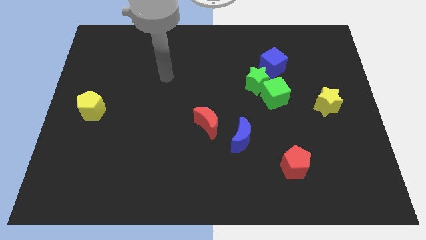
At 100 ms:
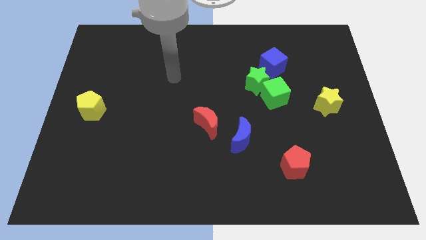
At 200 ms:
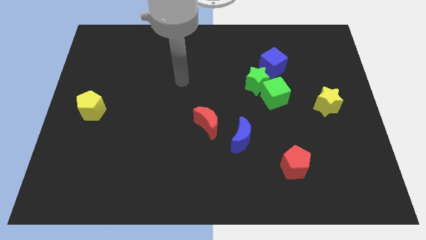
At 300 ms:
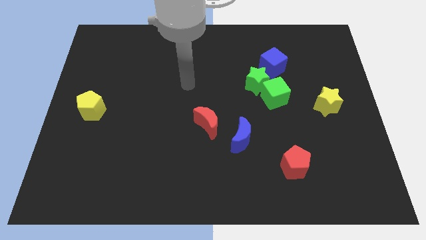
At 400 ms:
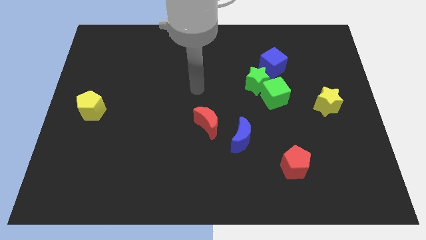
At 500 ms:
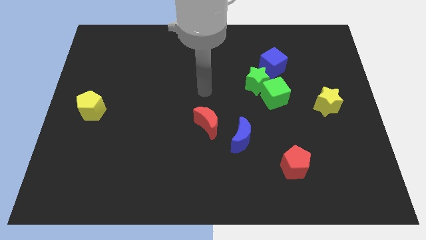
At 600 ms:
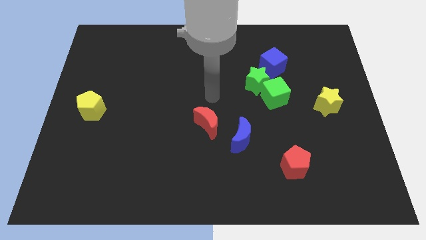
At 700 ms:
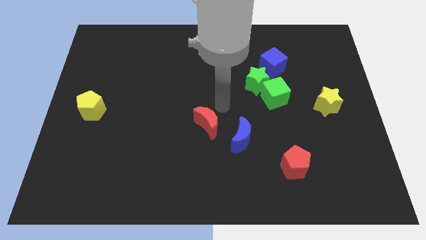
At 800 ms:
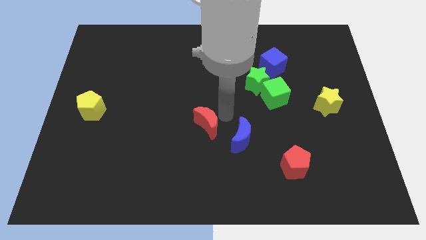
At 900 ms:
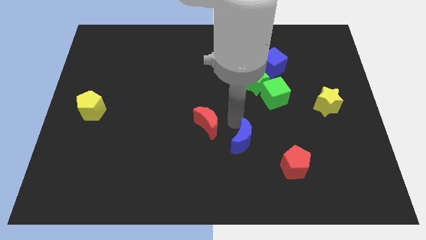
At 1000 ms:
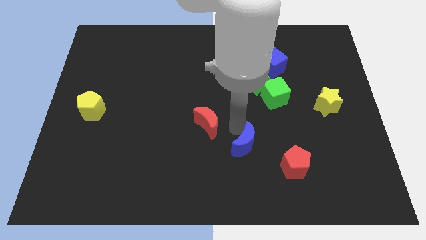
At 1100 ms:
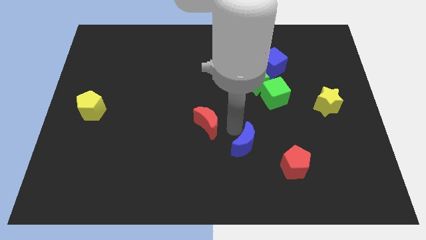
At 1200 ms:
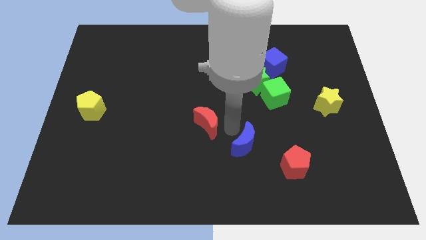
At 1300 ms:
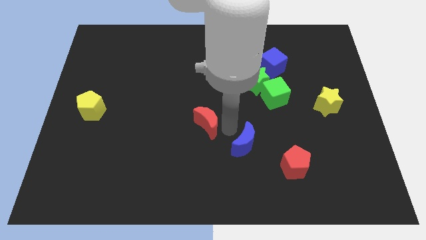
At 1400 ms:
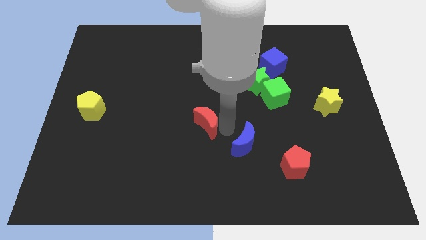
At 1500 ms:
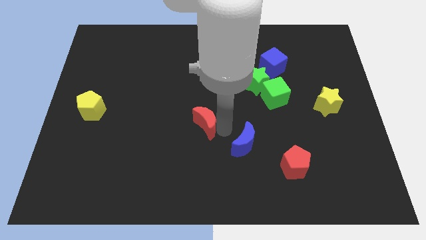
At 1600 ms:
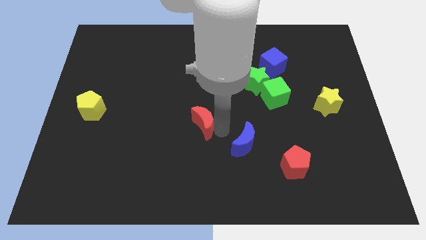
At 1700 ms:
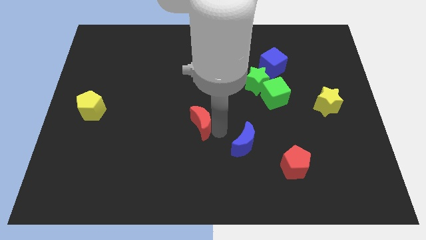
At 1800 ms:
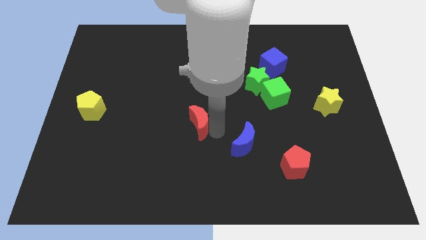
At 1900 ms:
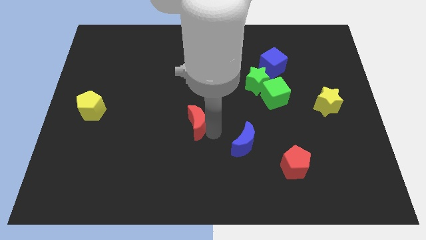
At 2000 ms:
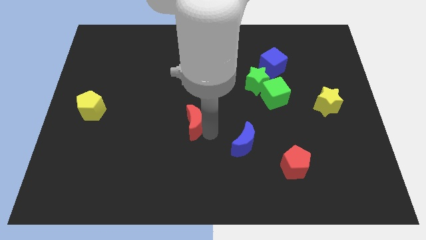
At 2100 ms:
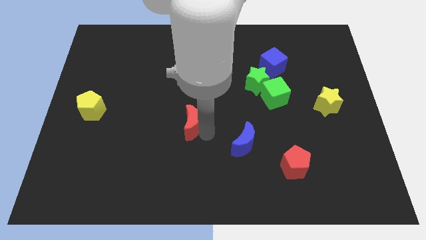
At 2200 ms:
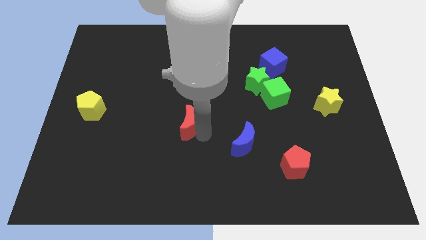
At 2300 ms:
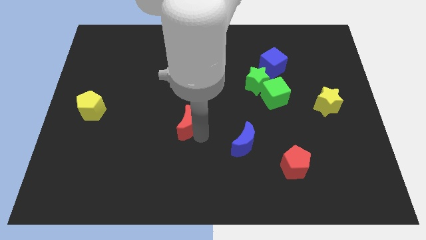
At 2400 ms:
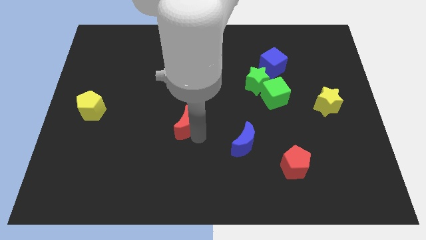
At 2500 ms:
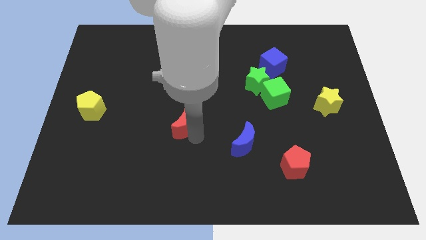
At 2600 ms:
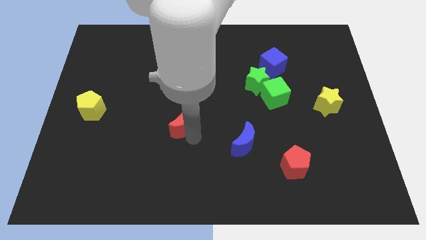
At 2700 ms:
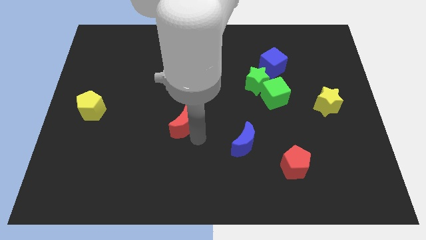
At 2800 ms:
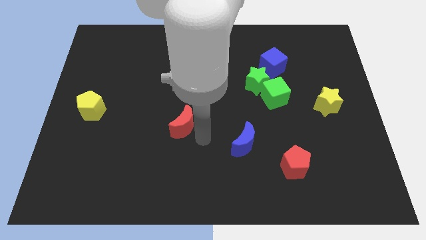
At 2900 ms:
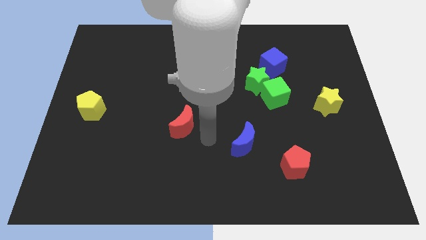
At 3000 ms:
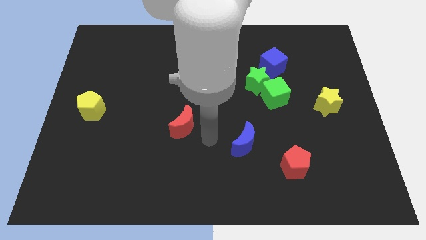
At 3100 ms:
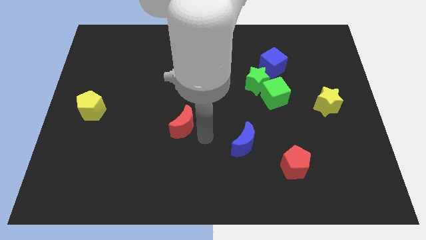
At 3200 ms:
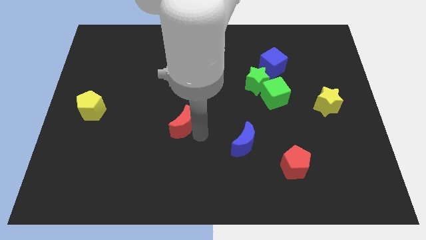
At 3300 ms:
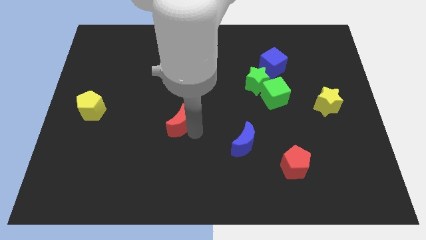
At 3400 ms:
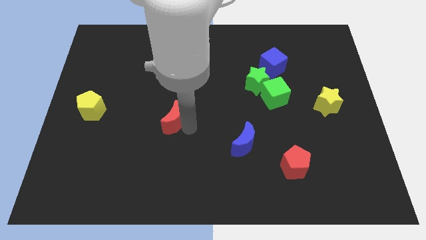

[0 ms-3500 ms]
slightly push the red moon to the left

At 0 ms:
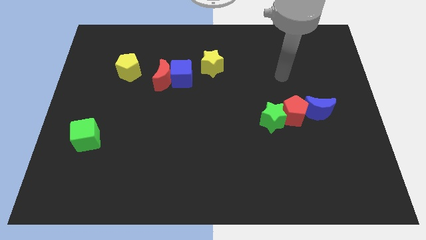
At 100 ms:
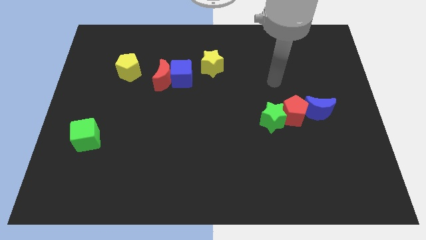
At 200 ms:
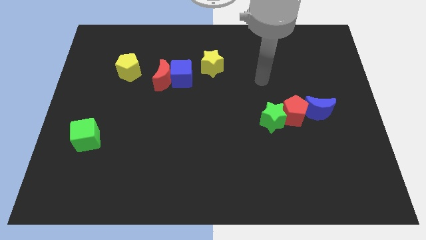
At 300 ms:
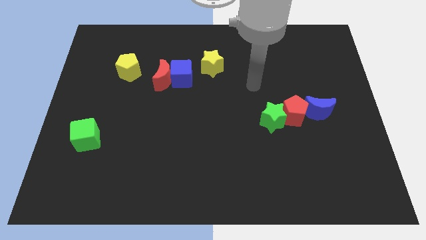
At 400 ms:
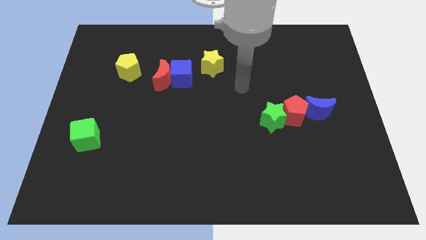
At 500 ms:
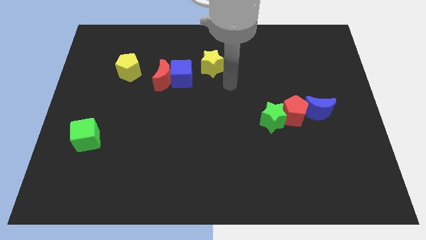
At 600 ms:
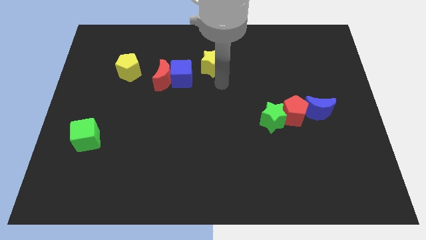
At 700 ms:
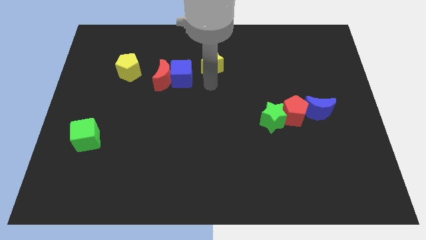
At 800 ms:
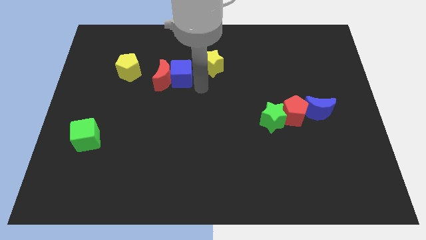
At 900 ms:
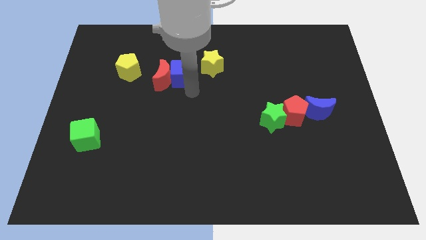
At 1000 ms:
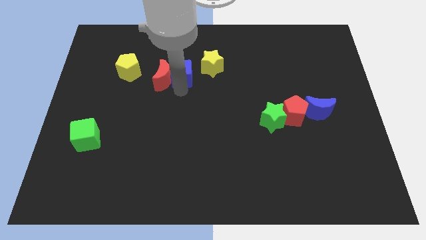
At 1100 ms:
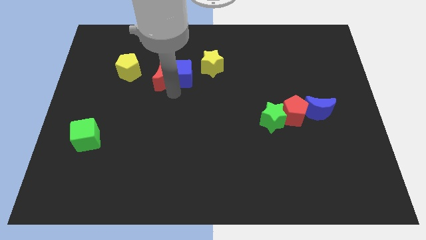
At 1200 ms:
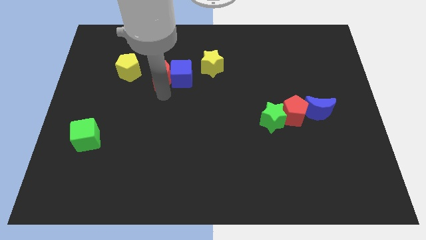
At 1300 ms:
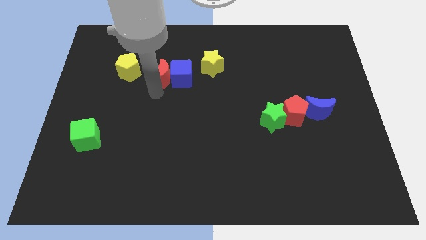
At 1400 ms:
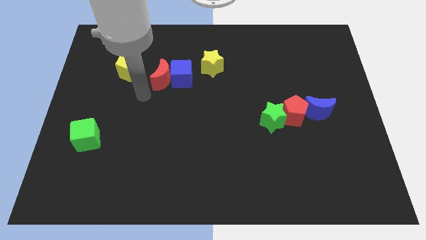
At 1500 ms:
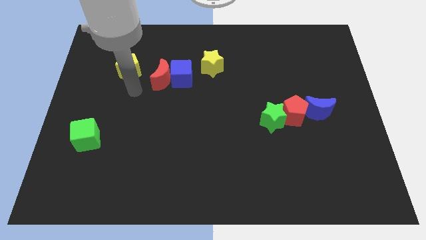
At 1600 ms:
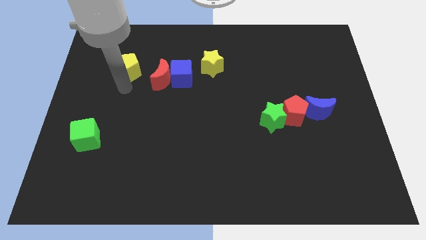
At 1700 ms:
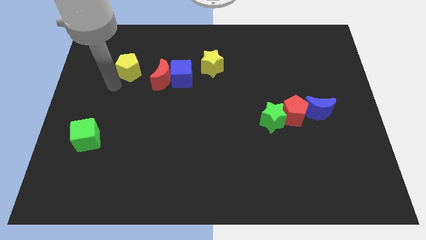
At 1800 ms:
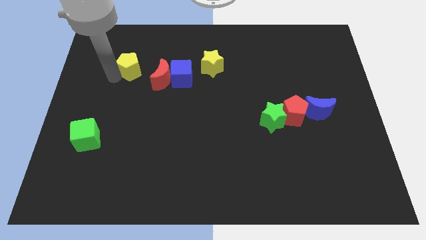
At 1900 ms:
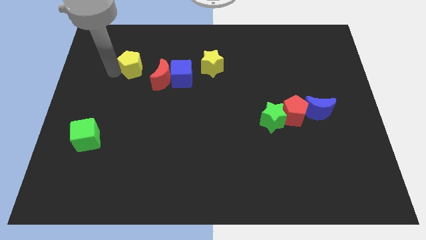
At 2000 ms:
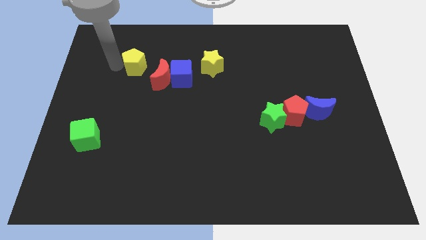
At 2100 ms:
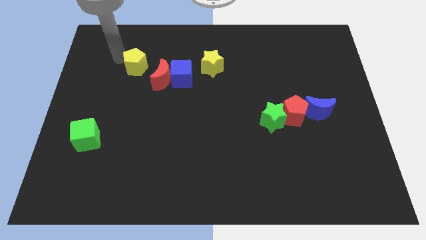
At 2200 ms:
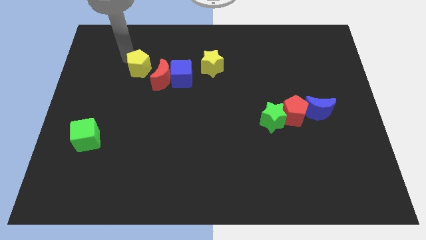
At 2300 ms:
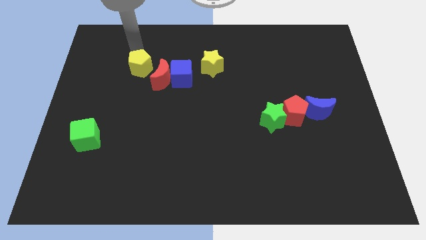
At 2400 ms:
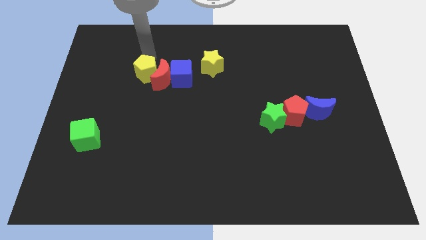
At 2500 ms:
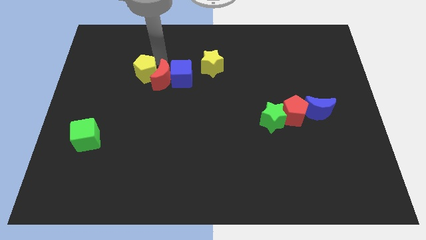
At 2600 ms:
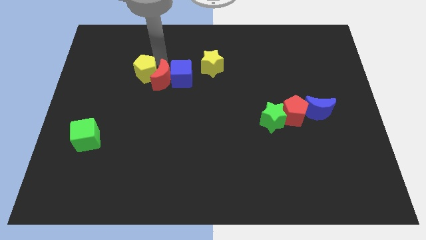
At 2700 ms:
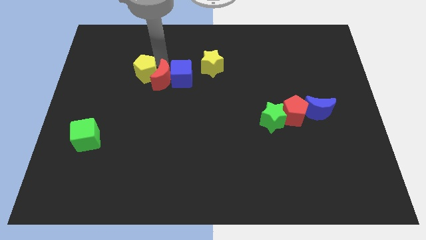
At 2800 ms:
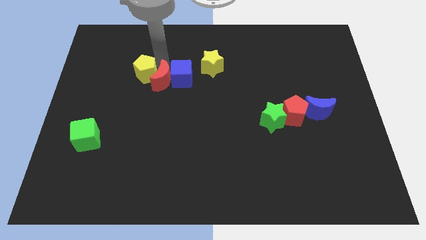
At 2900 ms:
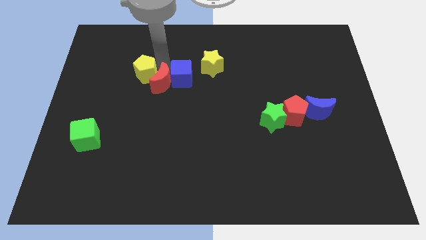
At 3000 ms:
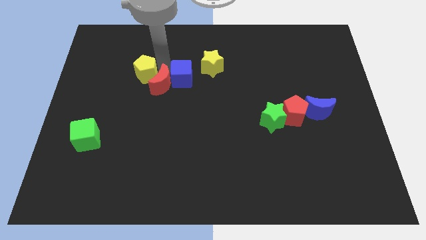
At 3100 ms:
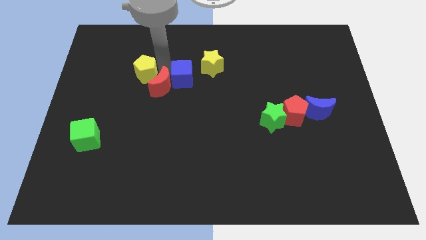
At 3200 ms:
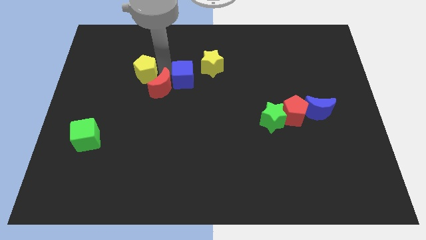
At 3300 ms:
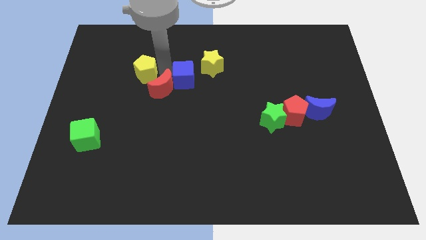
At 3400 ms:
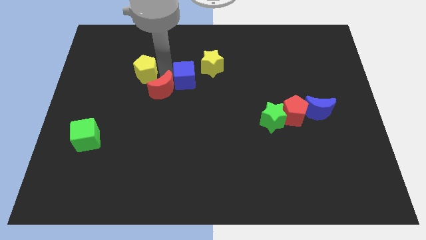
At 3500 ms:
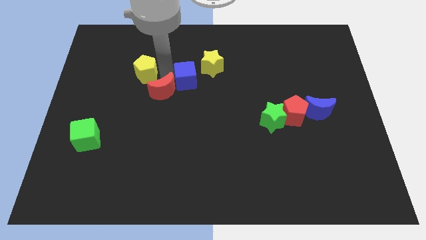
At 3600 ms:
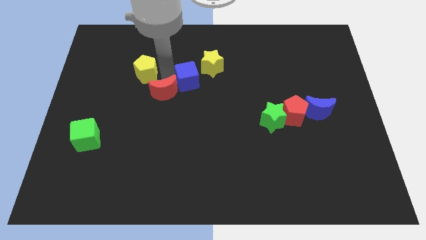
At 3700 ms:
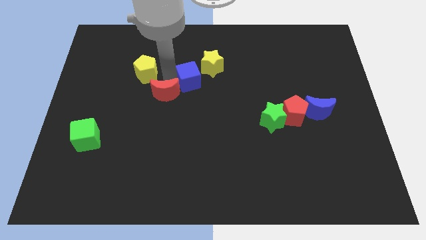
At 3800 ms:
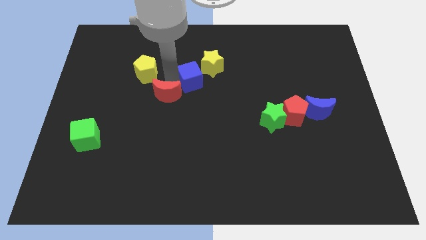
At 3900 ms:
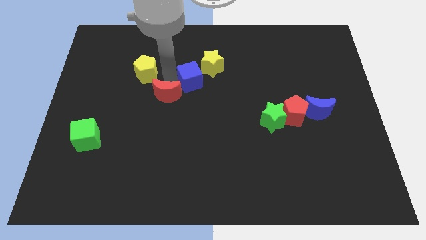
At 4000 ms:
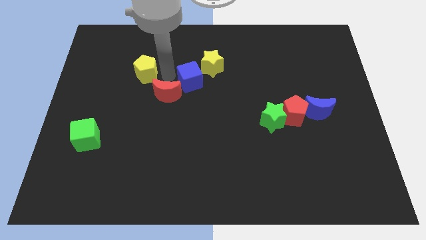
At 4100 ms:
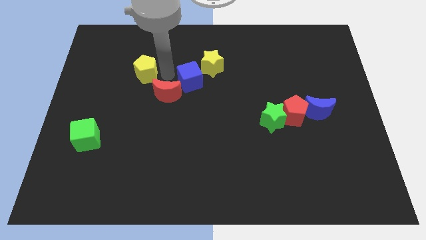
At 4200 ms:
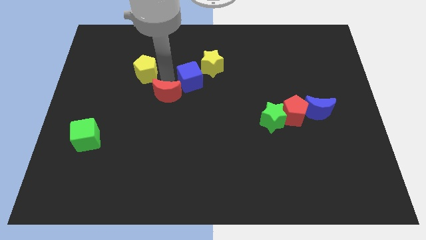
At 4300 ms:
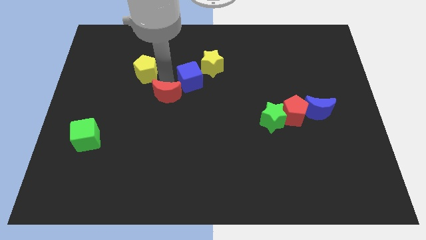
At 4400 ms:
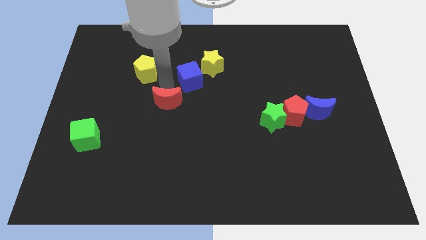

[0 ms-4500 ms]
move the red moon down slightly
